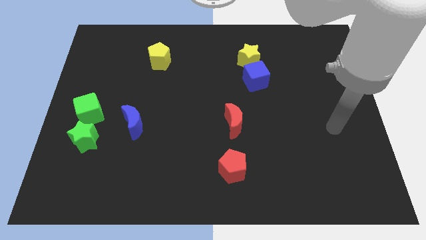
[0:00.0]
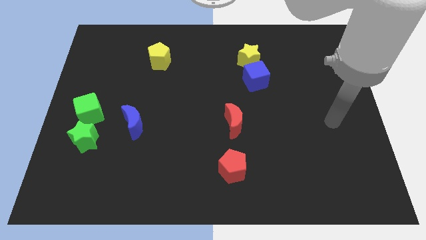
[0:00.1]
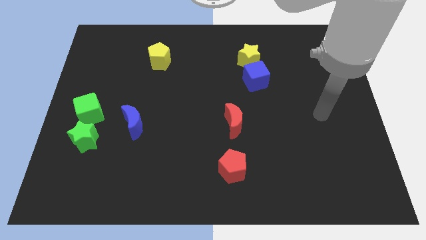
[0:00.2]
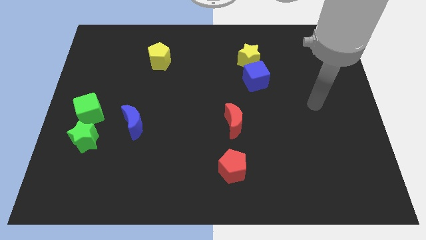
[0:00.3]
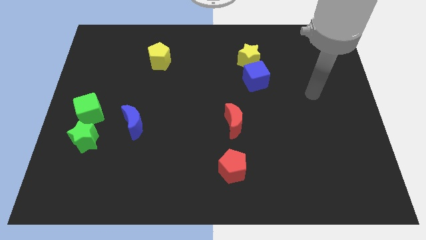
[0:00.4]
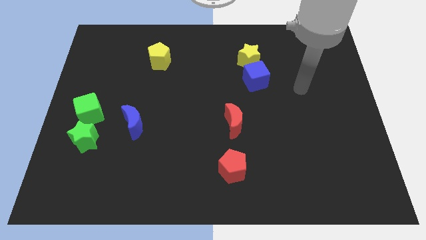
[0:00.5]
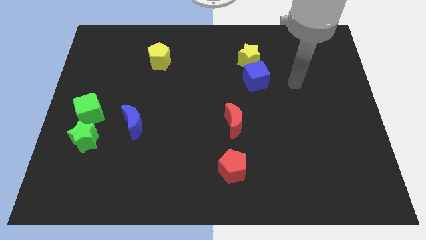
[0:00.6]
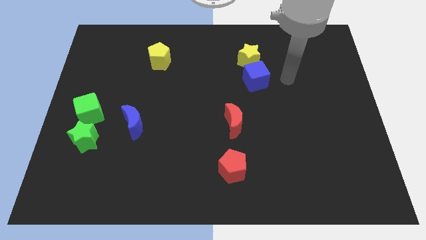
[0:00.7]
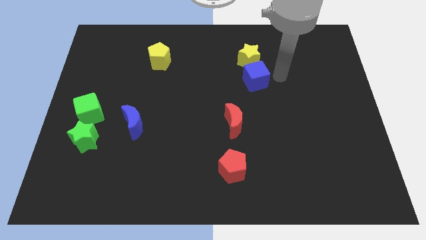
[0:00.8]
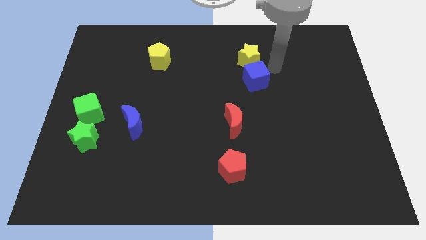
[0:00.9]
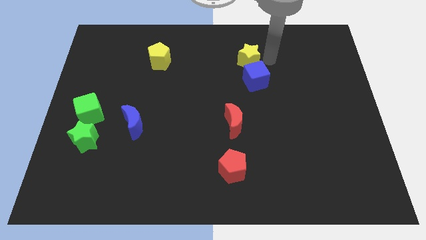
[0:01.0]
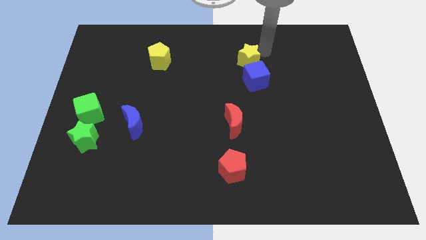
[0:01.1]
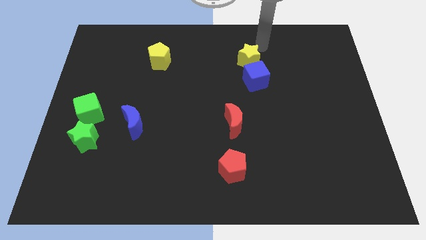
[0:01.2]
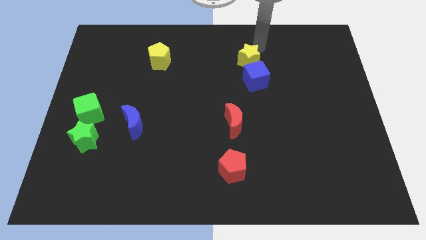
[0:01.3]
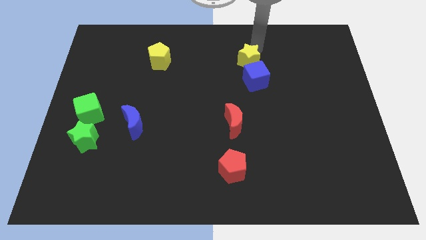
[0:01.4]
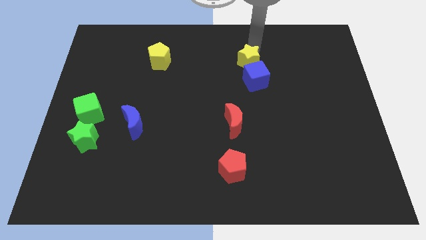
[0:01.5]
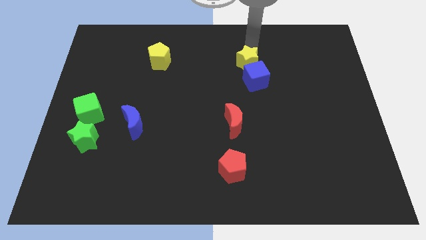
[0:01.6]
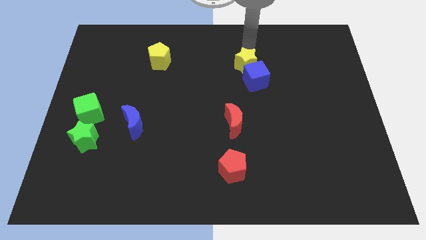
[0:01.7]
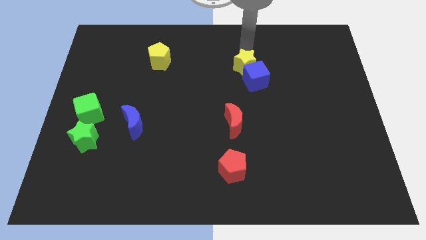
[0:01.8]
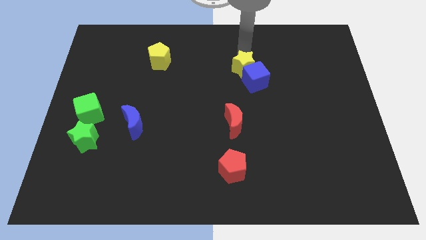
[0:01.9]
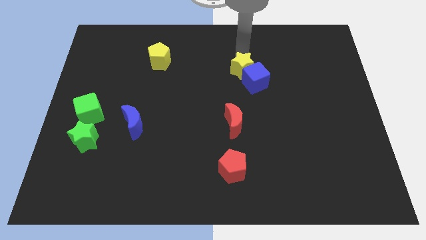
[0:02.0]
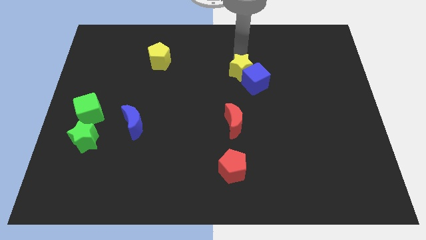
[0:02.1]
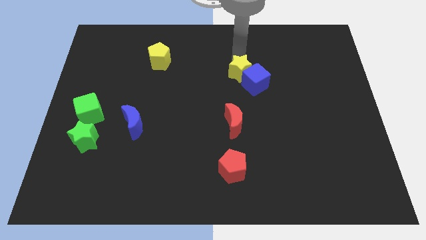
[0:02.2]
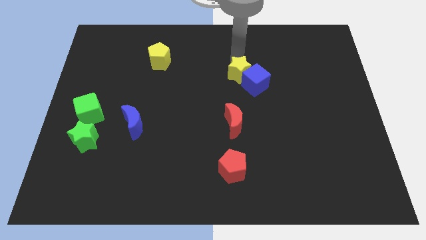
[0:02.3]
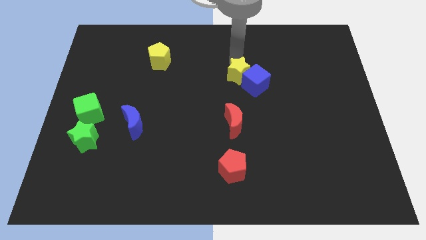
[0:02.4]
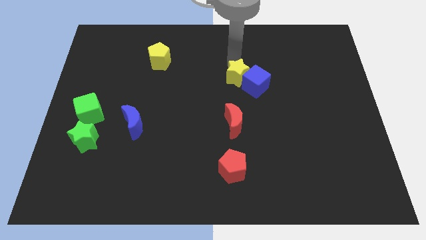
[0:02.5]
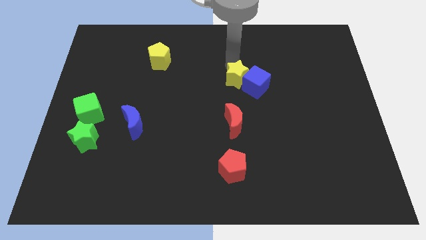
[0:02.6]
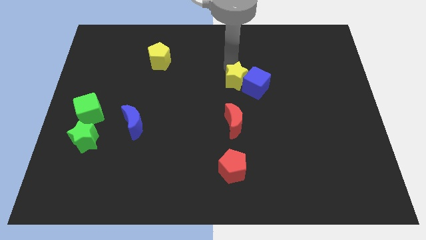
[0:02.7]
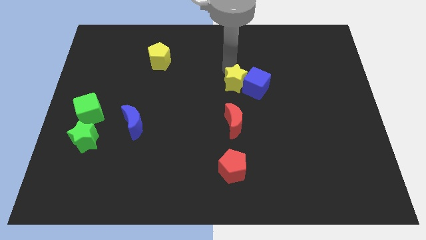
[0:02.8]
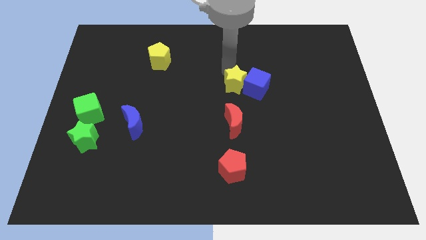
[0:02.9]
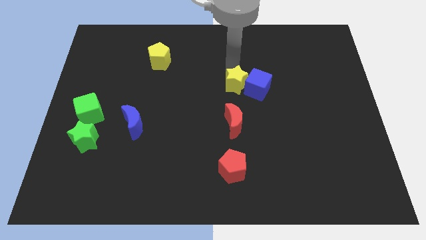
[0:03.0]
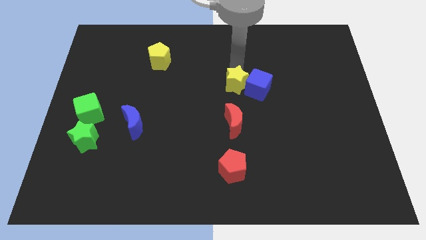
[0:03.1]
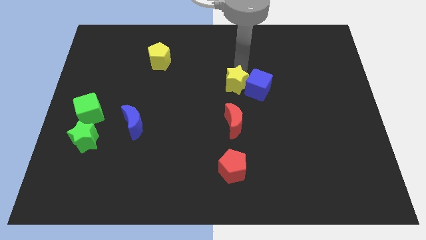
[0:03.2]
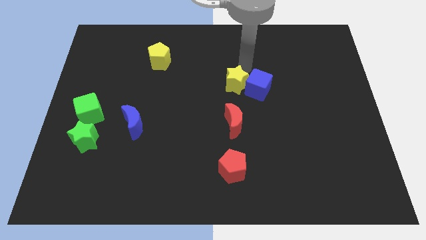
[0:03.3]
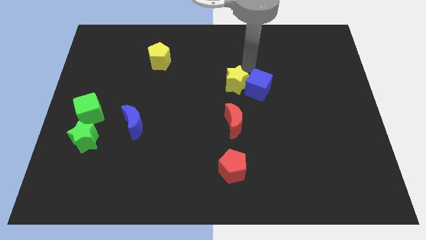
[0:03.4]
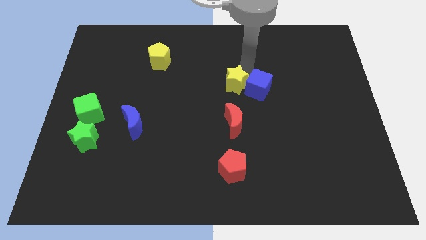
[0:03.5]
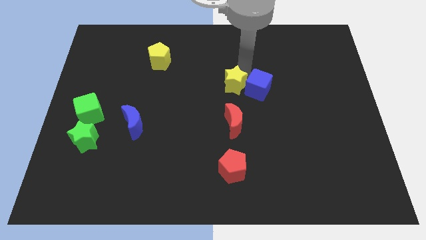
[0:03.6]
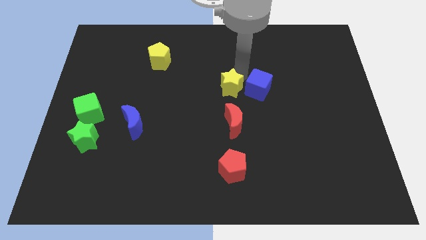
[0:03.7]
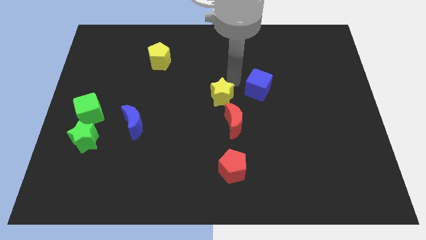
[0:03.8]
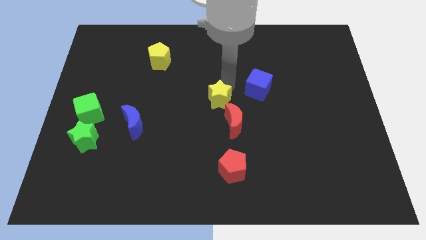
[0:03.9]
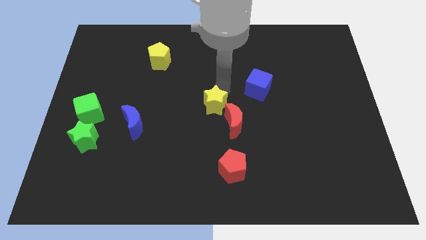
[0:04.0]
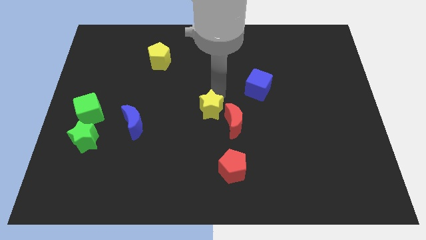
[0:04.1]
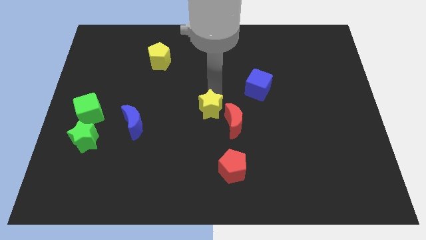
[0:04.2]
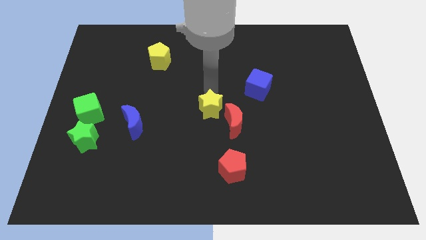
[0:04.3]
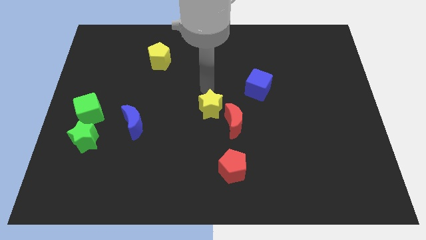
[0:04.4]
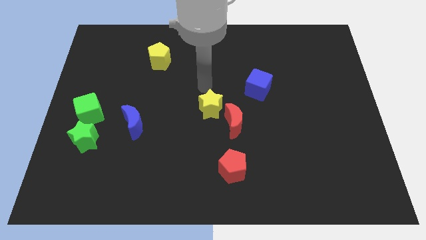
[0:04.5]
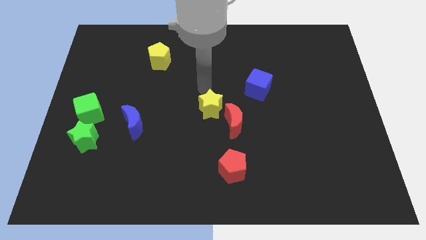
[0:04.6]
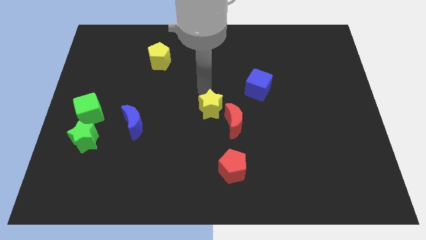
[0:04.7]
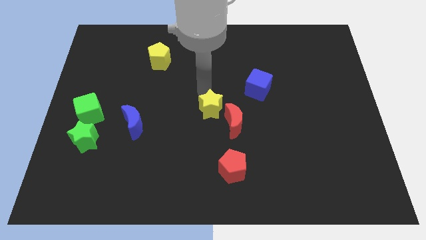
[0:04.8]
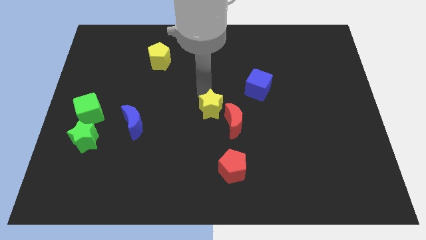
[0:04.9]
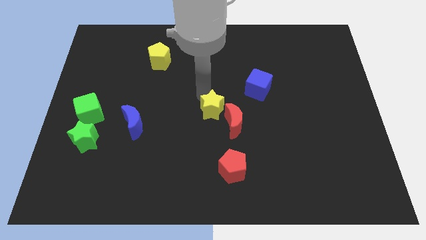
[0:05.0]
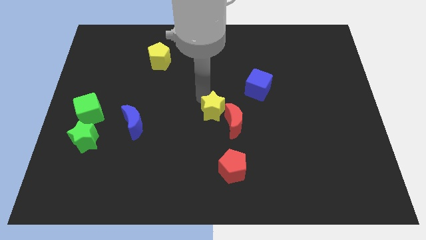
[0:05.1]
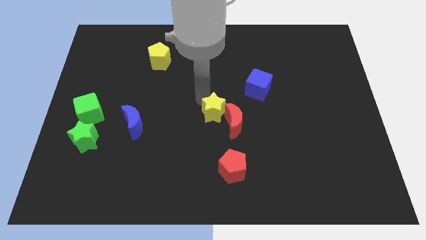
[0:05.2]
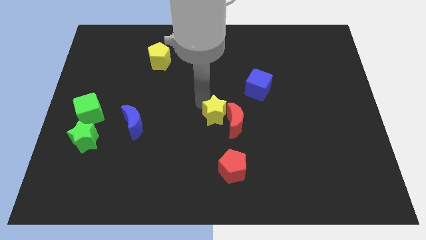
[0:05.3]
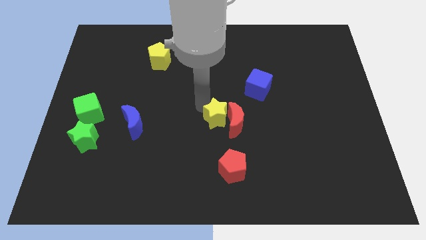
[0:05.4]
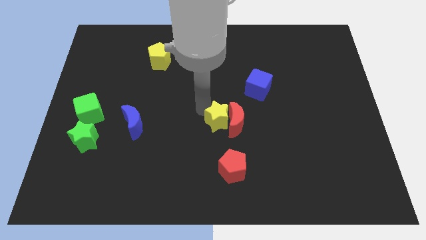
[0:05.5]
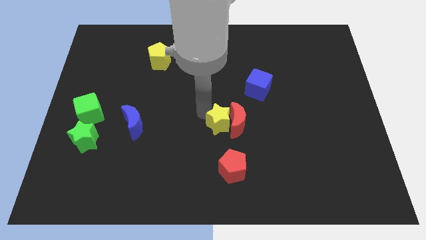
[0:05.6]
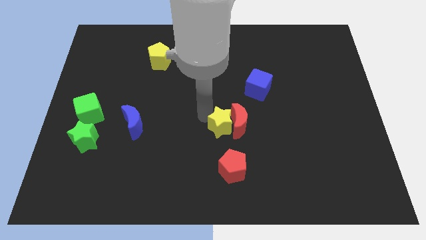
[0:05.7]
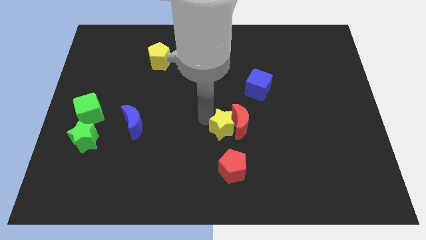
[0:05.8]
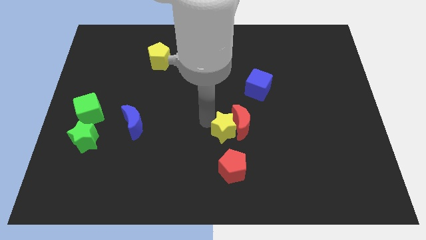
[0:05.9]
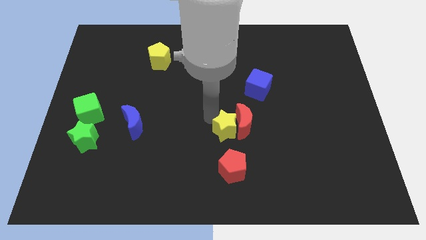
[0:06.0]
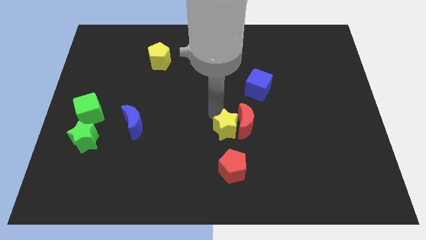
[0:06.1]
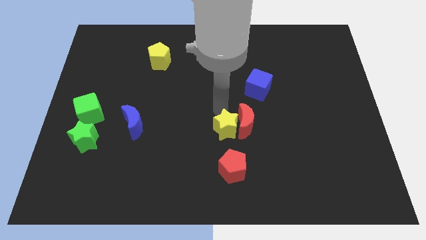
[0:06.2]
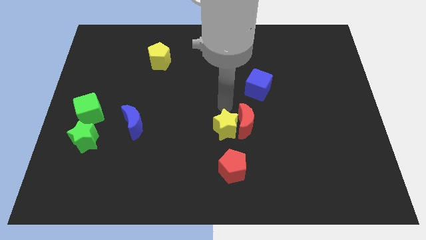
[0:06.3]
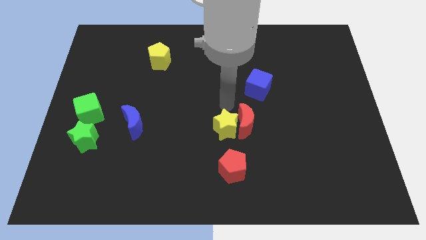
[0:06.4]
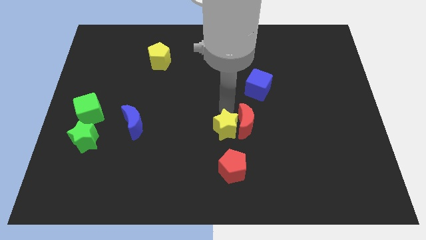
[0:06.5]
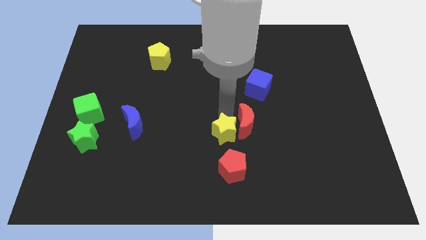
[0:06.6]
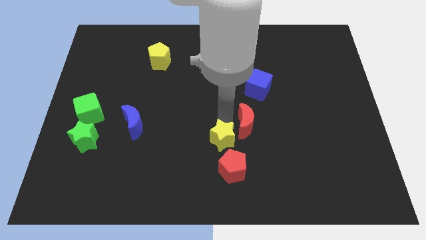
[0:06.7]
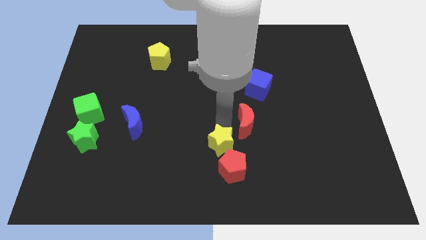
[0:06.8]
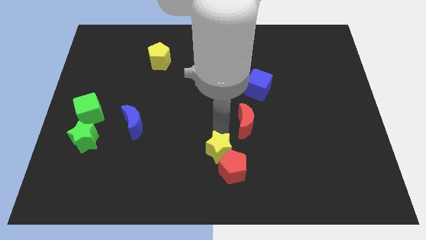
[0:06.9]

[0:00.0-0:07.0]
slide the yellow star towards the red pentagon

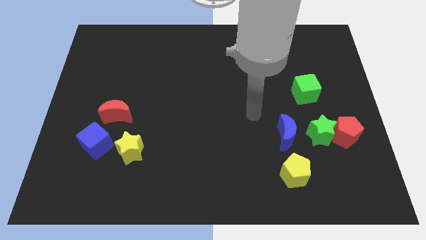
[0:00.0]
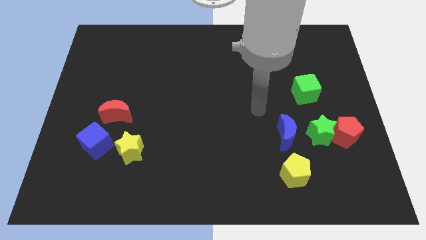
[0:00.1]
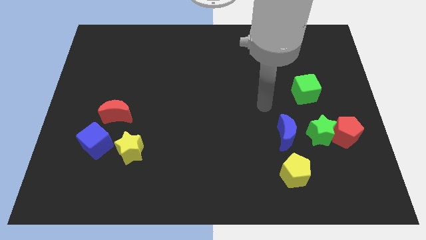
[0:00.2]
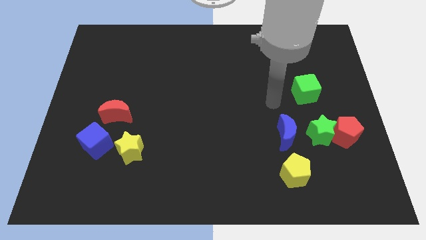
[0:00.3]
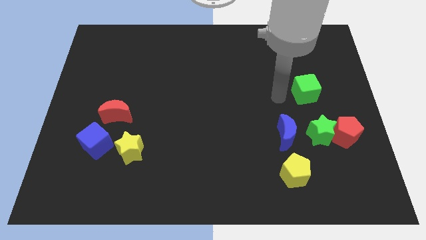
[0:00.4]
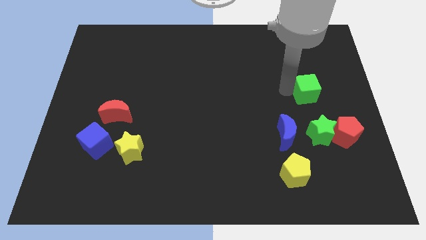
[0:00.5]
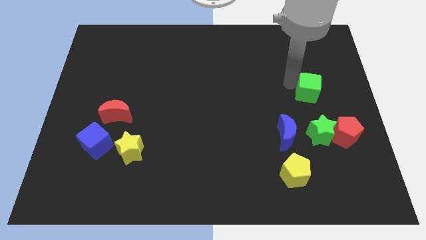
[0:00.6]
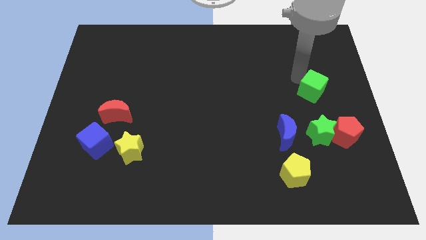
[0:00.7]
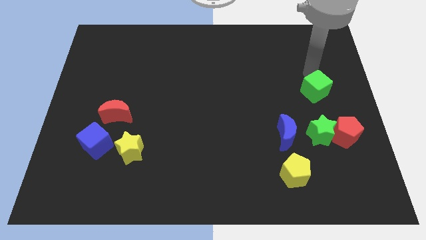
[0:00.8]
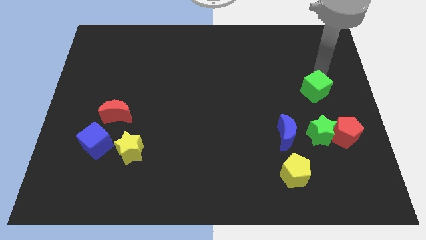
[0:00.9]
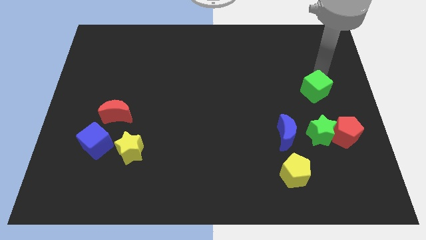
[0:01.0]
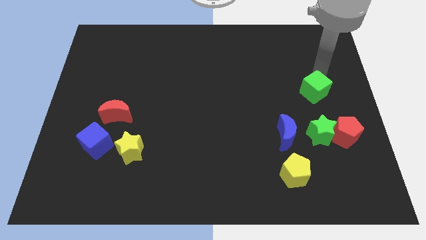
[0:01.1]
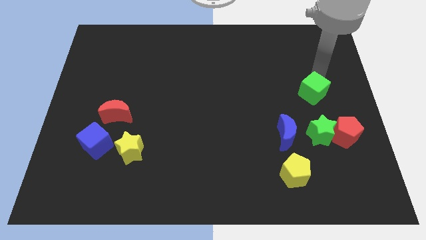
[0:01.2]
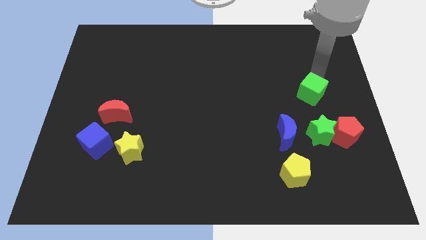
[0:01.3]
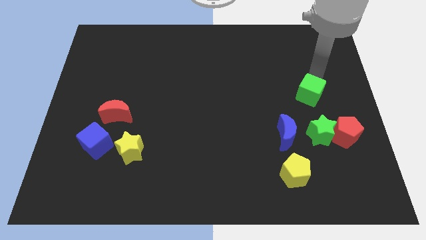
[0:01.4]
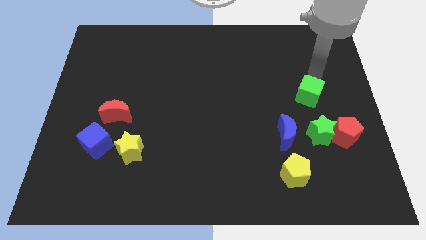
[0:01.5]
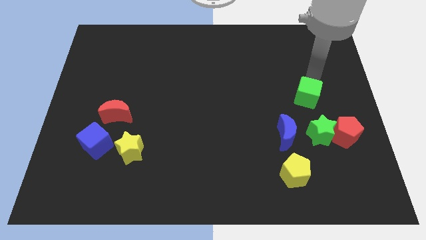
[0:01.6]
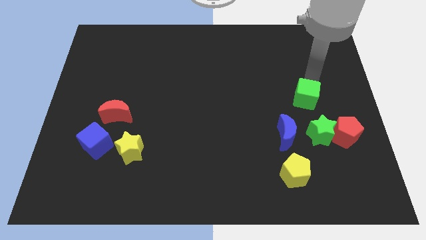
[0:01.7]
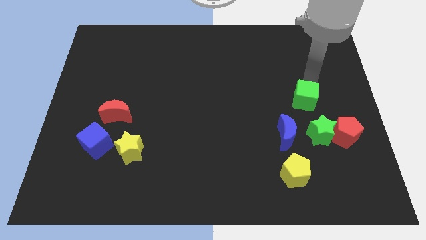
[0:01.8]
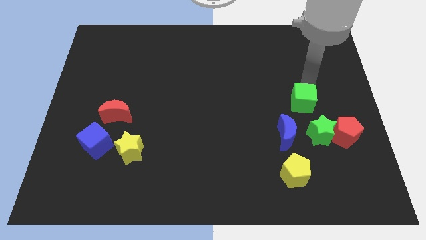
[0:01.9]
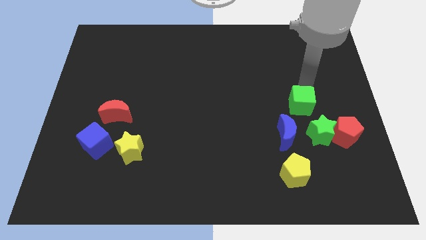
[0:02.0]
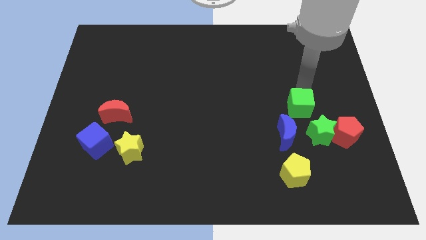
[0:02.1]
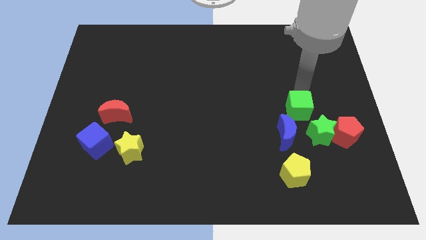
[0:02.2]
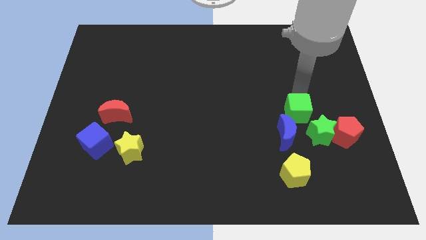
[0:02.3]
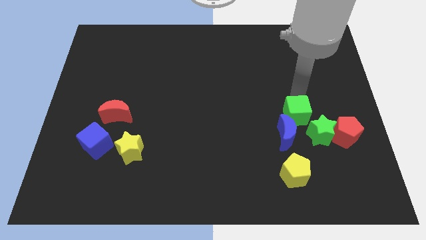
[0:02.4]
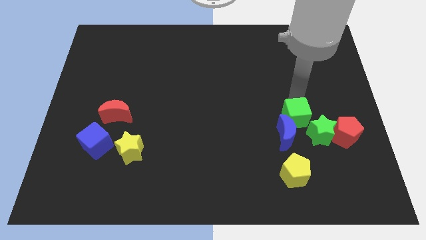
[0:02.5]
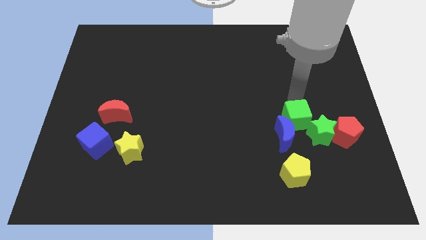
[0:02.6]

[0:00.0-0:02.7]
move the green cube towards the green star
